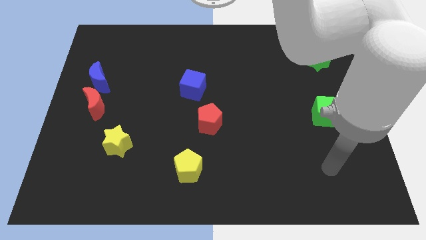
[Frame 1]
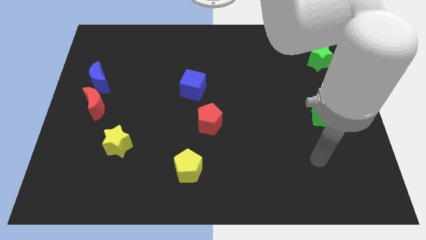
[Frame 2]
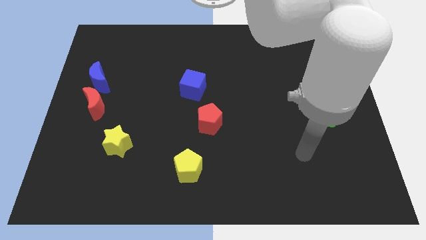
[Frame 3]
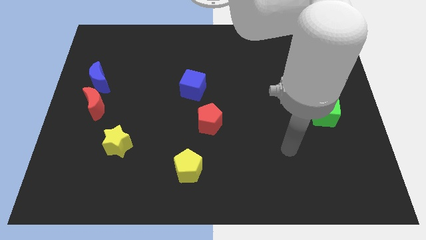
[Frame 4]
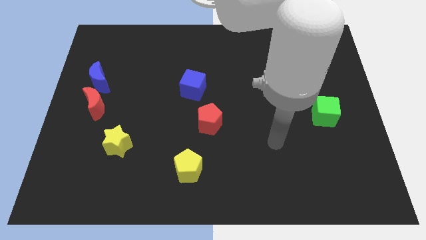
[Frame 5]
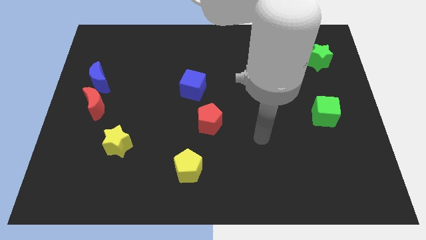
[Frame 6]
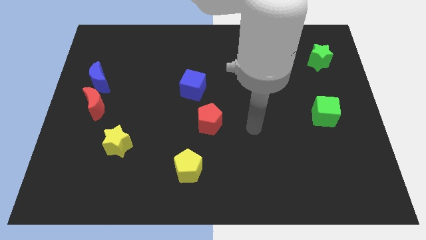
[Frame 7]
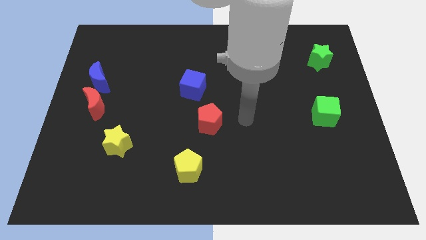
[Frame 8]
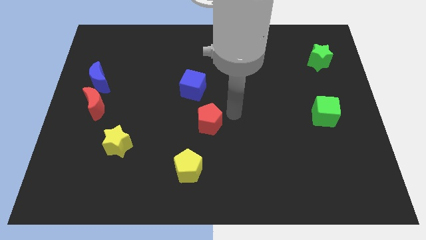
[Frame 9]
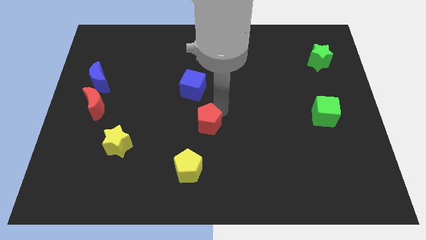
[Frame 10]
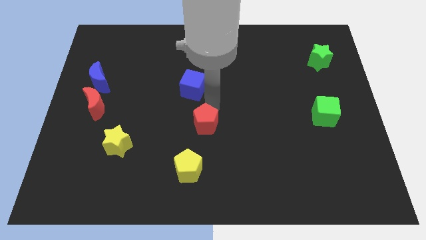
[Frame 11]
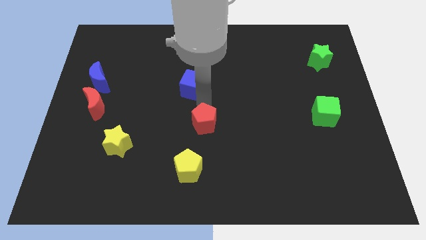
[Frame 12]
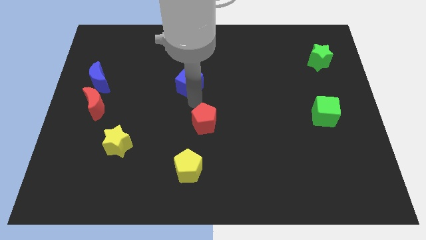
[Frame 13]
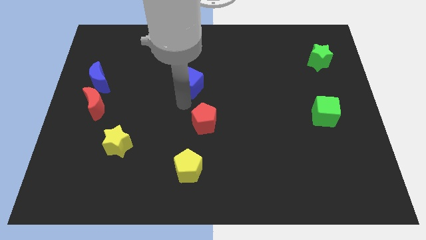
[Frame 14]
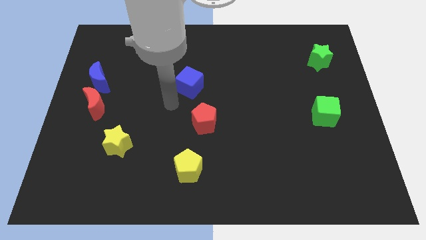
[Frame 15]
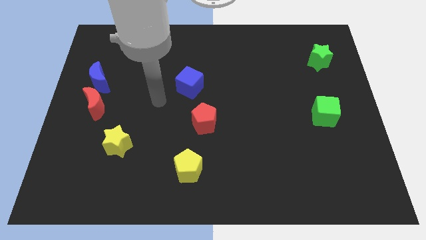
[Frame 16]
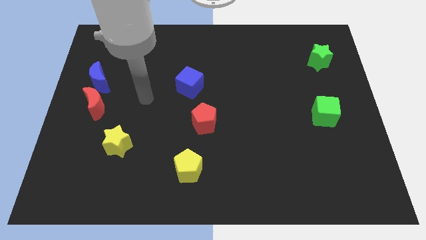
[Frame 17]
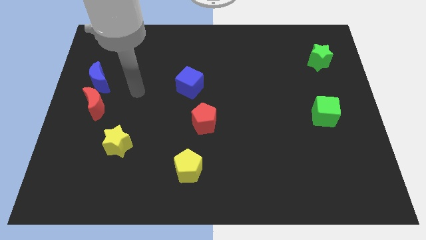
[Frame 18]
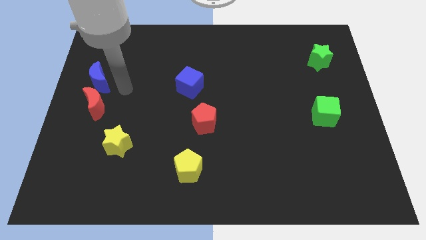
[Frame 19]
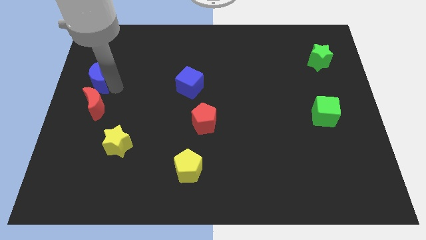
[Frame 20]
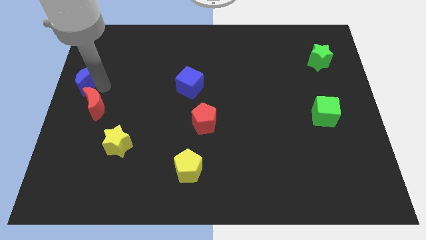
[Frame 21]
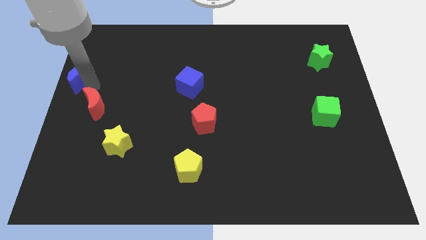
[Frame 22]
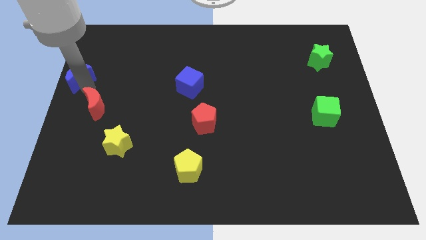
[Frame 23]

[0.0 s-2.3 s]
pull the red moon apart from the blue moon

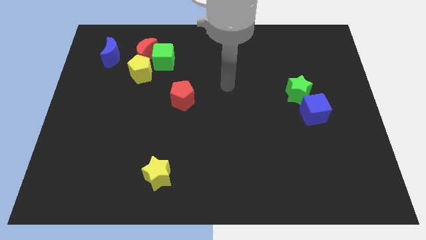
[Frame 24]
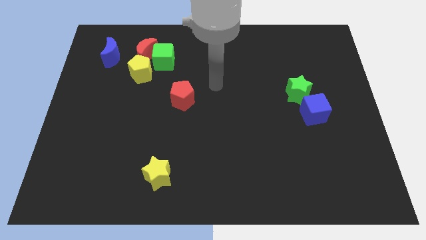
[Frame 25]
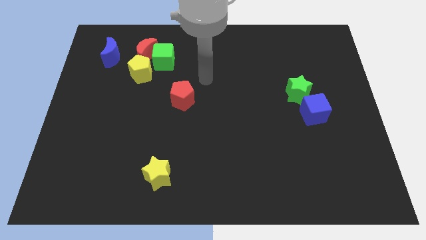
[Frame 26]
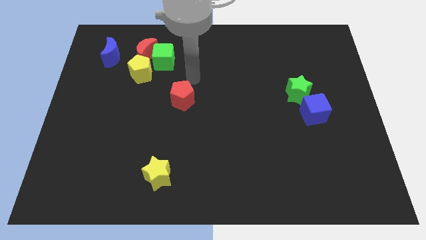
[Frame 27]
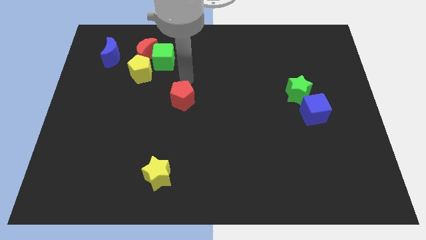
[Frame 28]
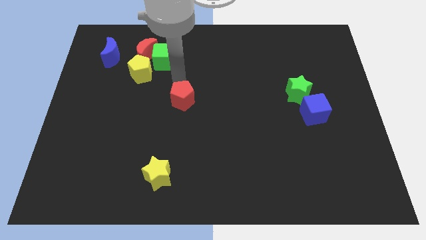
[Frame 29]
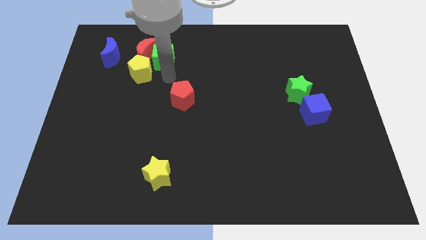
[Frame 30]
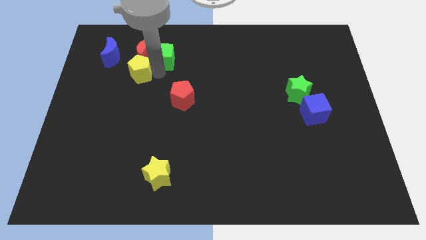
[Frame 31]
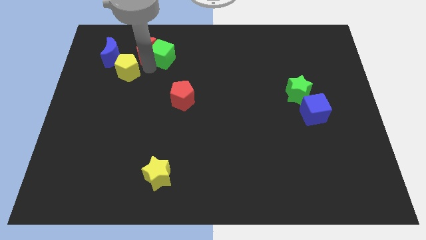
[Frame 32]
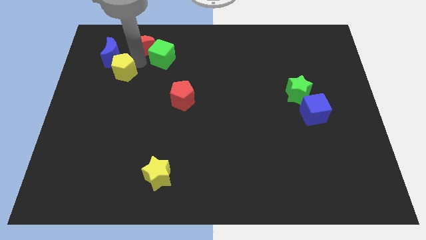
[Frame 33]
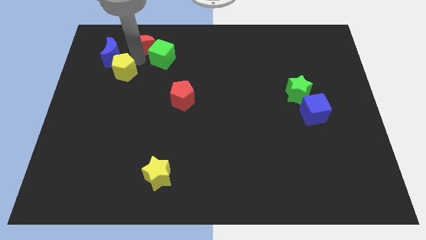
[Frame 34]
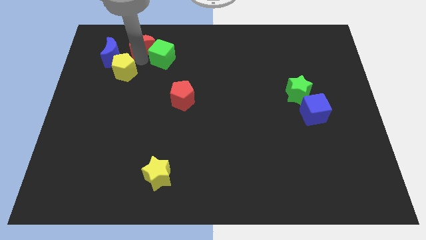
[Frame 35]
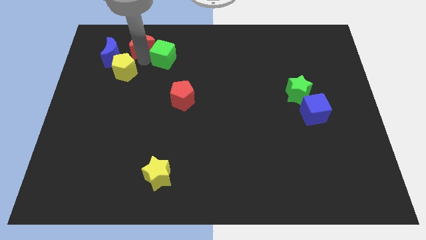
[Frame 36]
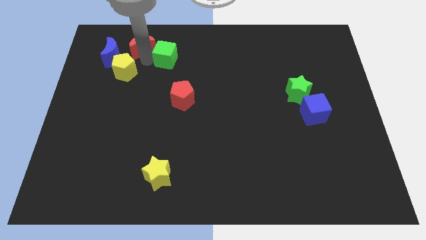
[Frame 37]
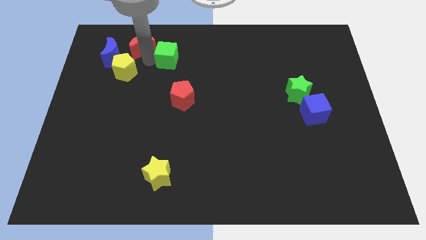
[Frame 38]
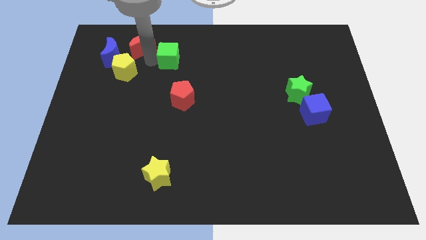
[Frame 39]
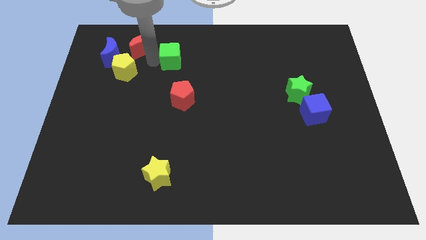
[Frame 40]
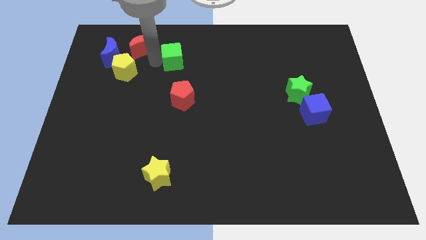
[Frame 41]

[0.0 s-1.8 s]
separate the green cube from the red moon and yellow pentagon

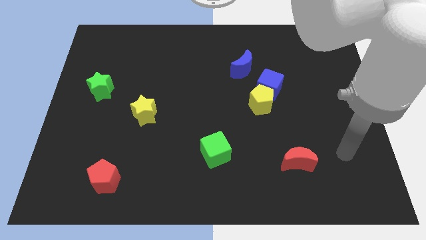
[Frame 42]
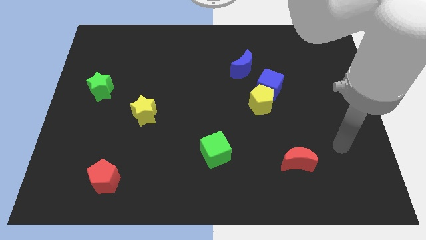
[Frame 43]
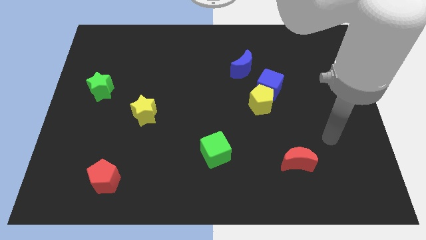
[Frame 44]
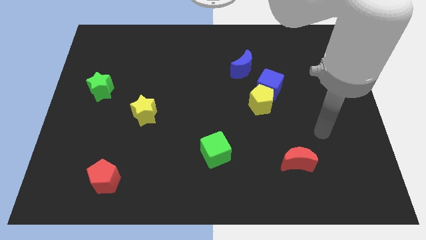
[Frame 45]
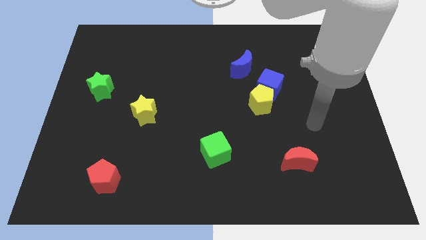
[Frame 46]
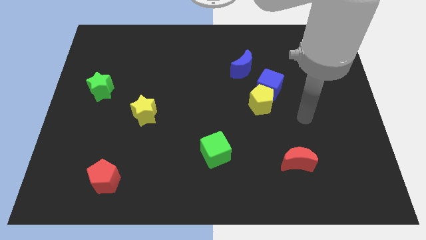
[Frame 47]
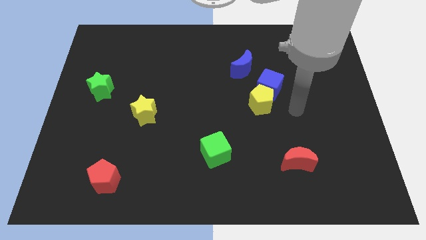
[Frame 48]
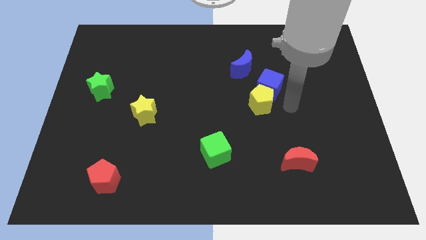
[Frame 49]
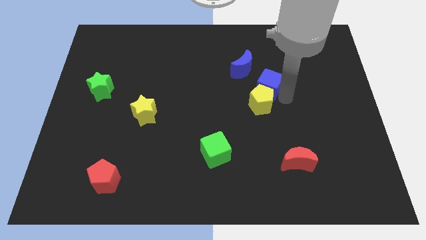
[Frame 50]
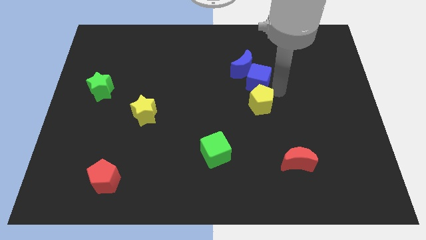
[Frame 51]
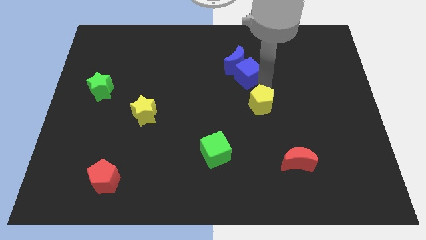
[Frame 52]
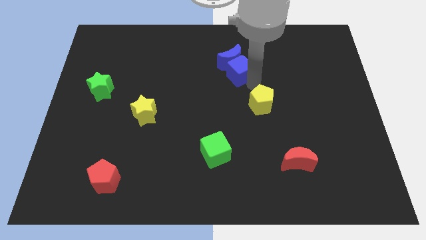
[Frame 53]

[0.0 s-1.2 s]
pull the yellow pentagon apart from the blue cube

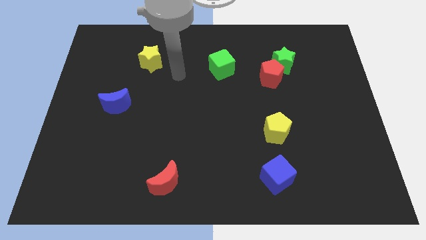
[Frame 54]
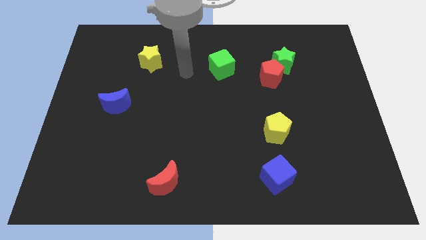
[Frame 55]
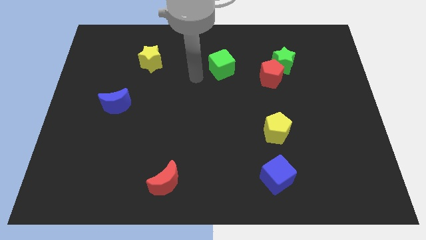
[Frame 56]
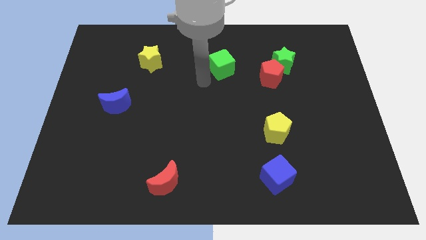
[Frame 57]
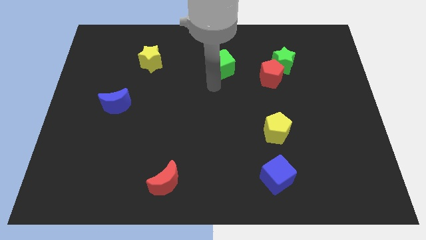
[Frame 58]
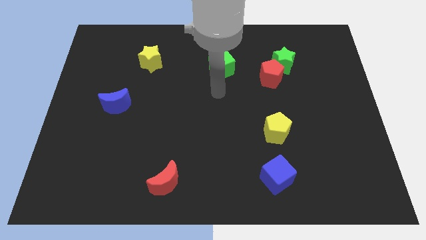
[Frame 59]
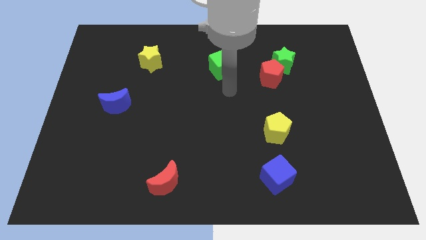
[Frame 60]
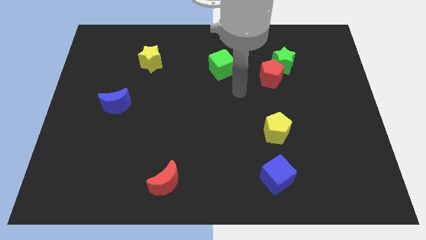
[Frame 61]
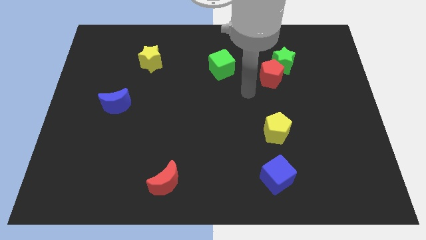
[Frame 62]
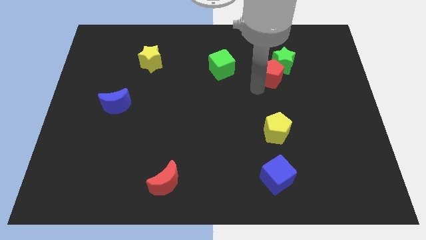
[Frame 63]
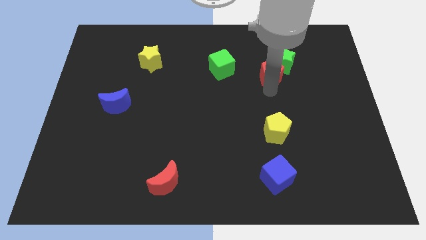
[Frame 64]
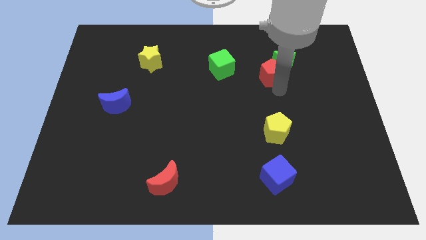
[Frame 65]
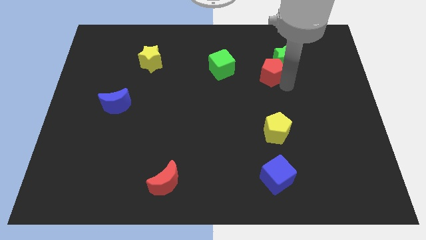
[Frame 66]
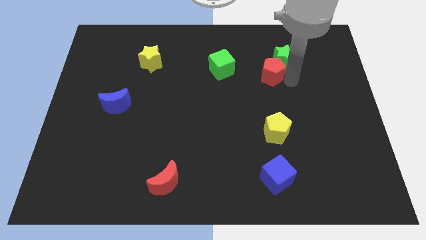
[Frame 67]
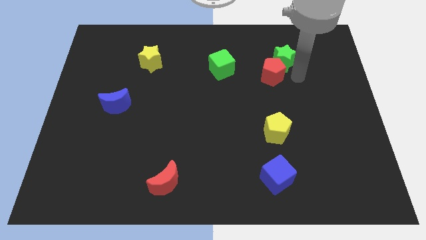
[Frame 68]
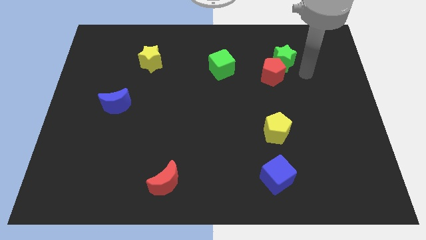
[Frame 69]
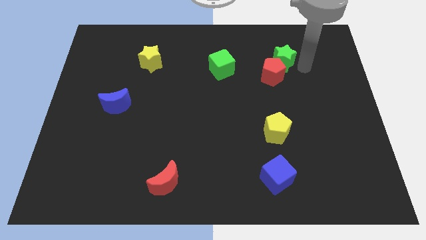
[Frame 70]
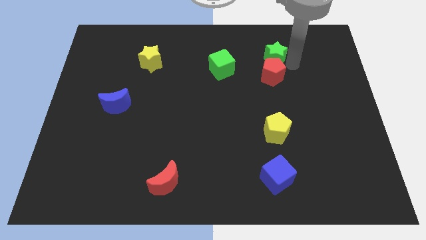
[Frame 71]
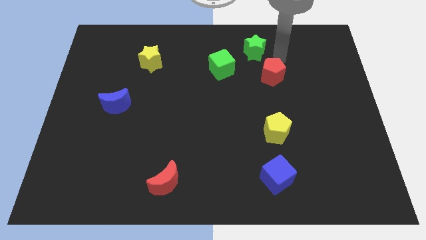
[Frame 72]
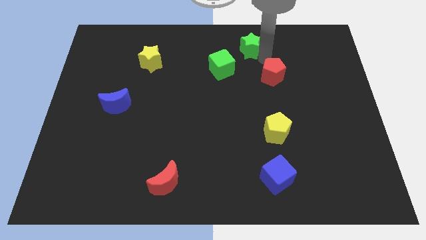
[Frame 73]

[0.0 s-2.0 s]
move the red pentagon away from the green star

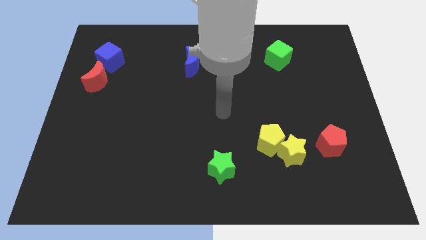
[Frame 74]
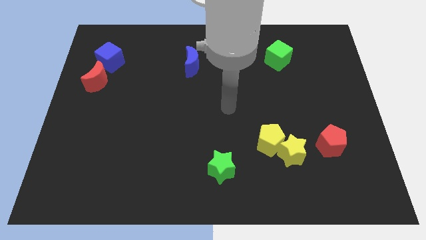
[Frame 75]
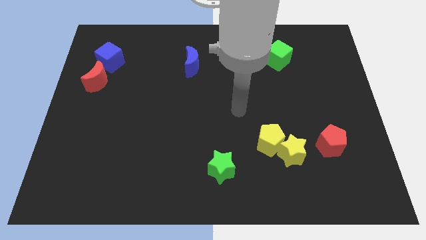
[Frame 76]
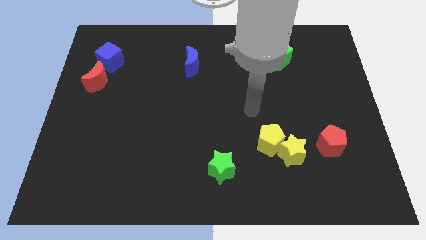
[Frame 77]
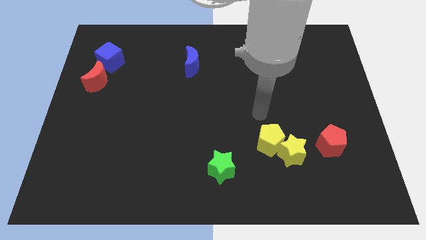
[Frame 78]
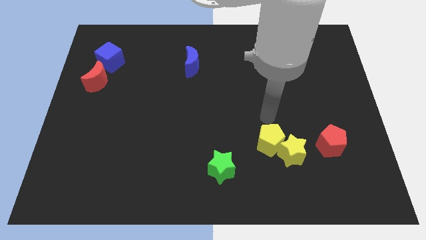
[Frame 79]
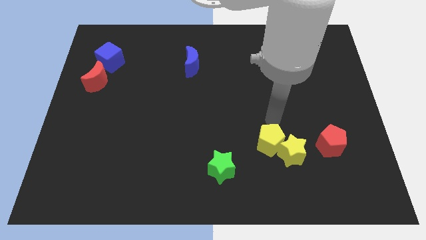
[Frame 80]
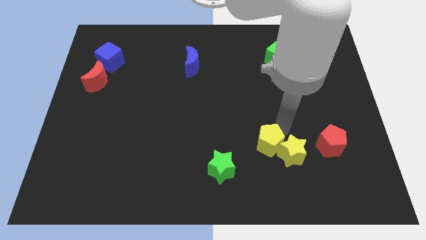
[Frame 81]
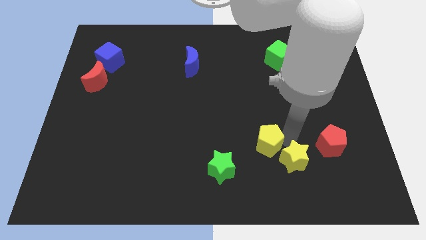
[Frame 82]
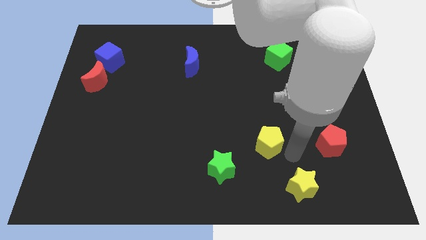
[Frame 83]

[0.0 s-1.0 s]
separate the yellow pentagon from the yellow star

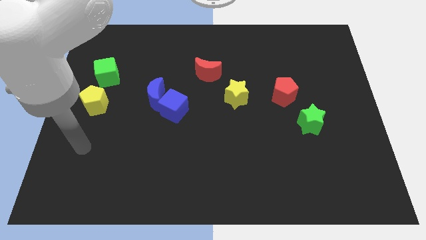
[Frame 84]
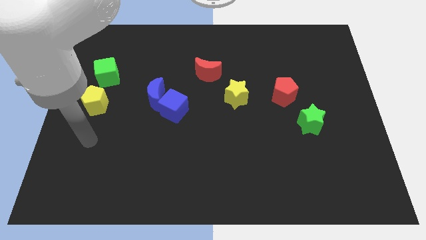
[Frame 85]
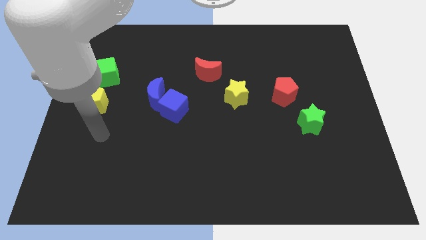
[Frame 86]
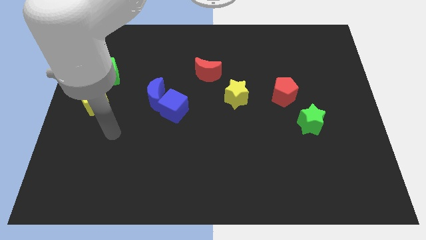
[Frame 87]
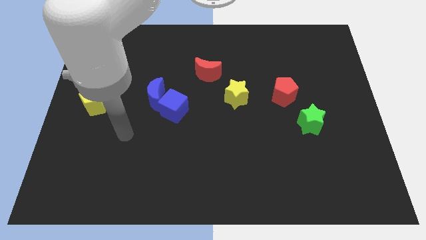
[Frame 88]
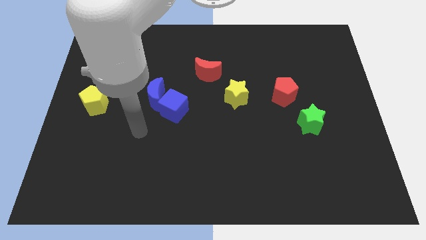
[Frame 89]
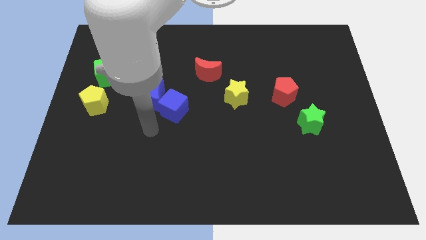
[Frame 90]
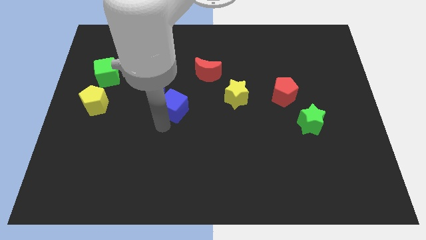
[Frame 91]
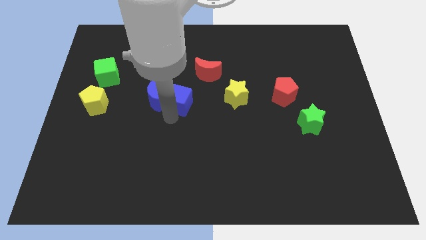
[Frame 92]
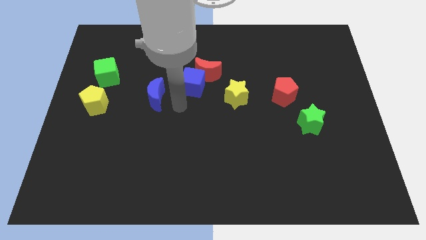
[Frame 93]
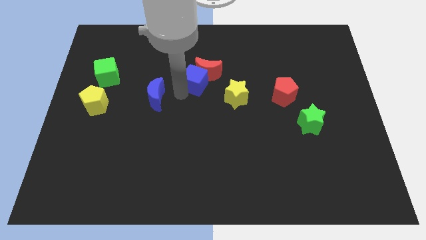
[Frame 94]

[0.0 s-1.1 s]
separate the blue moon from the blue cube
